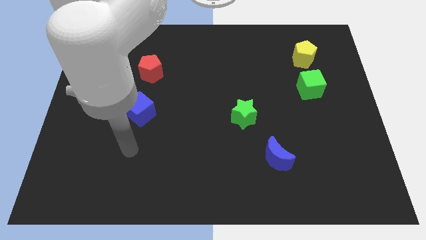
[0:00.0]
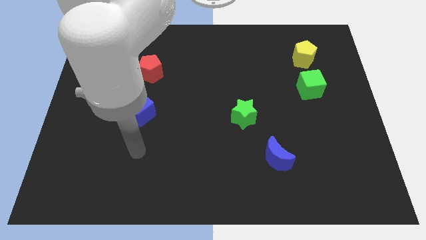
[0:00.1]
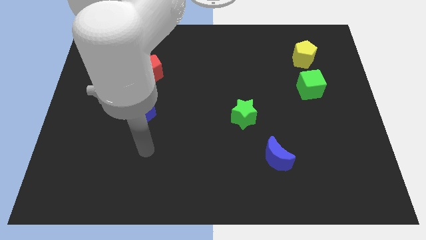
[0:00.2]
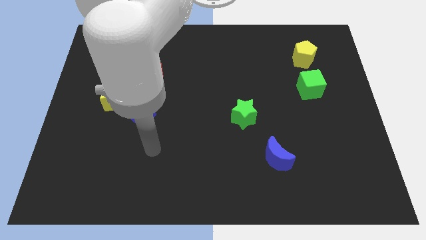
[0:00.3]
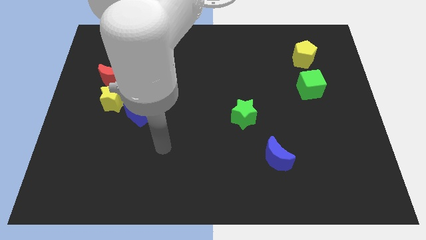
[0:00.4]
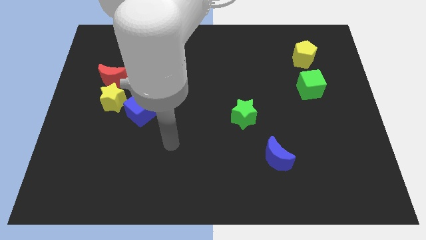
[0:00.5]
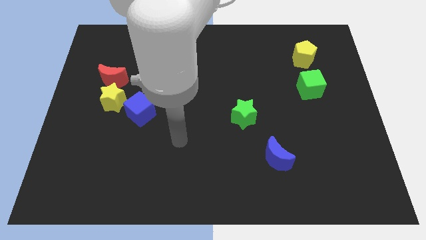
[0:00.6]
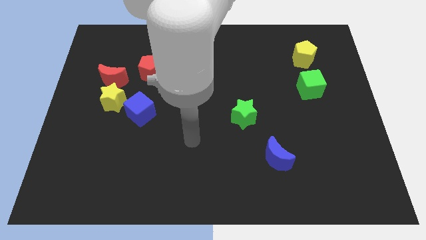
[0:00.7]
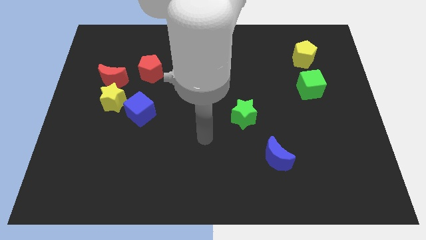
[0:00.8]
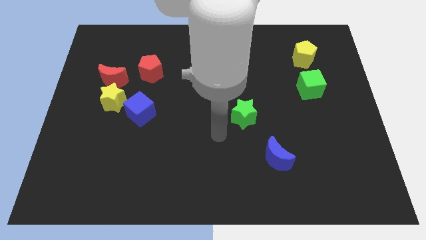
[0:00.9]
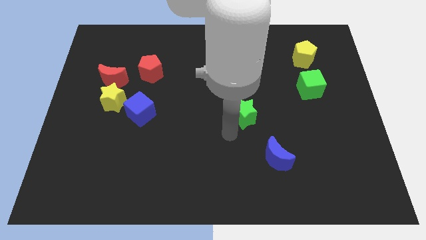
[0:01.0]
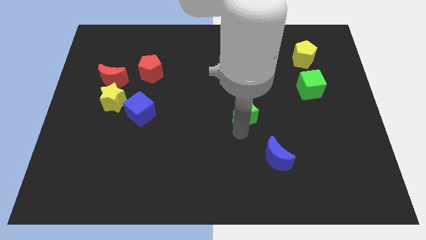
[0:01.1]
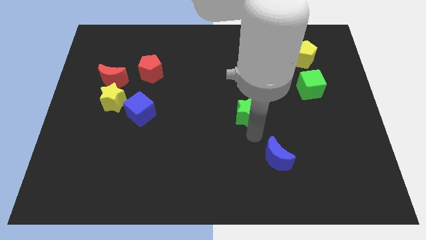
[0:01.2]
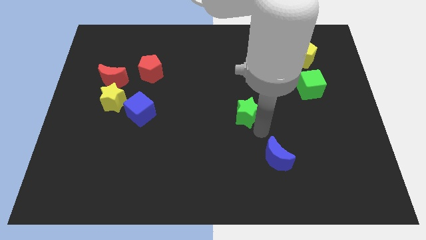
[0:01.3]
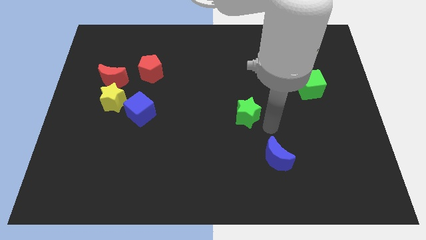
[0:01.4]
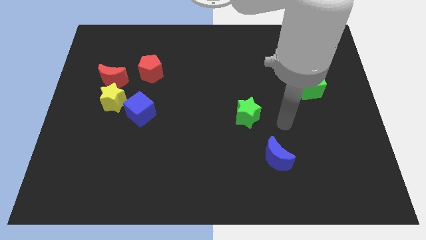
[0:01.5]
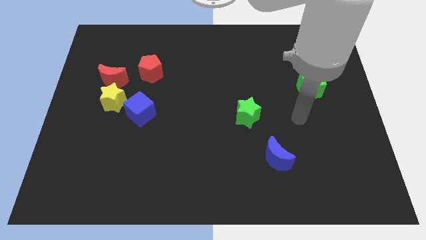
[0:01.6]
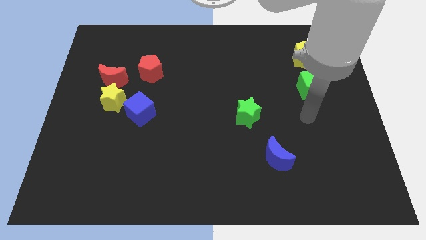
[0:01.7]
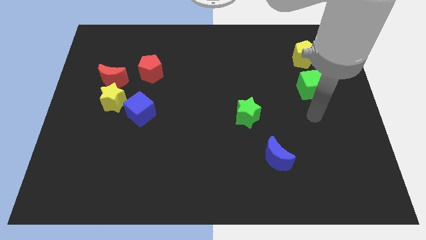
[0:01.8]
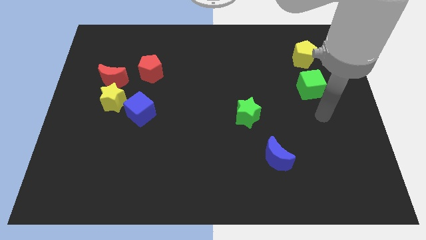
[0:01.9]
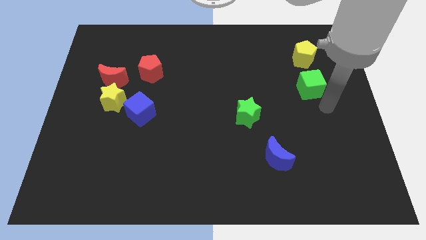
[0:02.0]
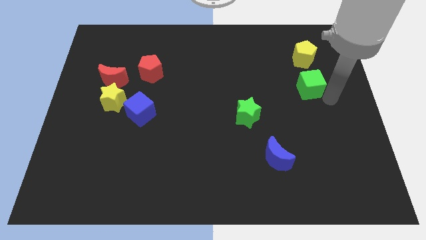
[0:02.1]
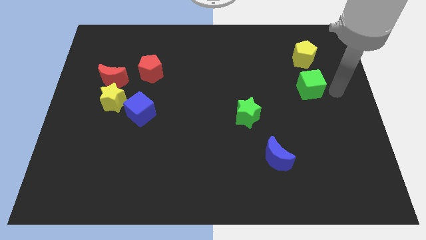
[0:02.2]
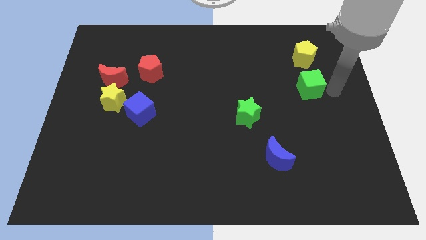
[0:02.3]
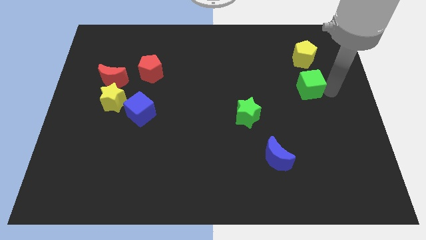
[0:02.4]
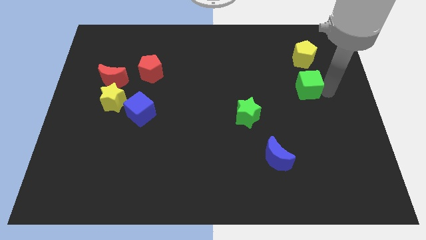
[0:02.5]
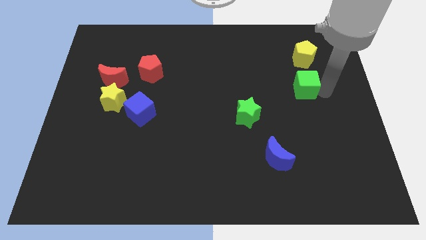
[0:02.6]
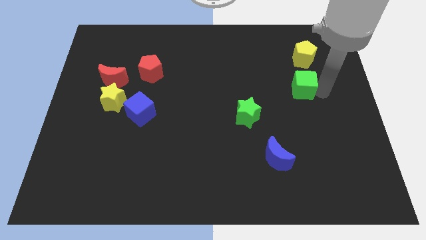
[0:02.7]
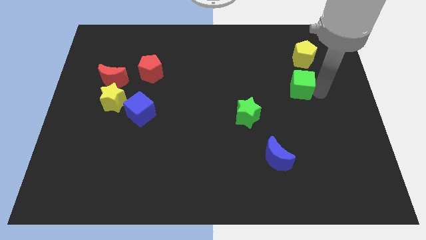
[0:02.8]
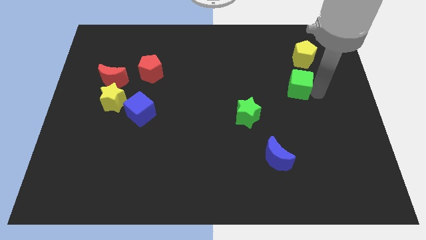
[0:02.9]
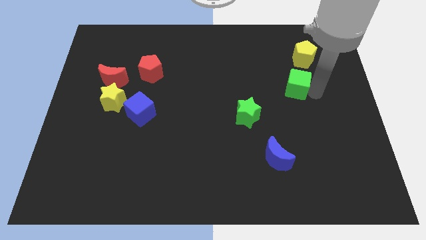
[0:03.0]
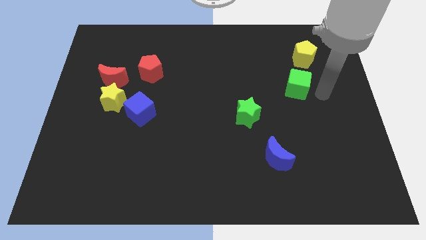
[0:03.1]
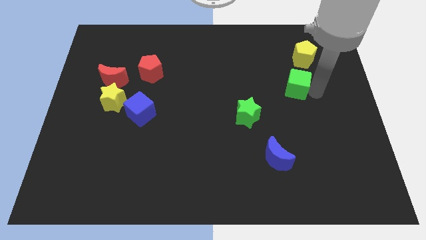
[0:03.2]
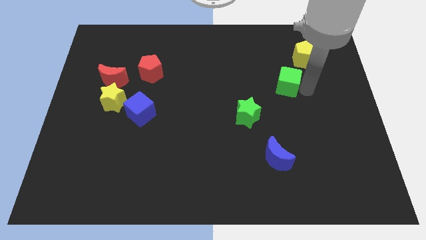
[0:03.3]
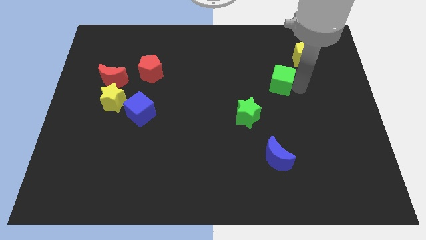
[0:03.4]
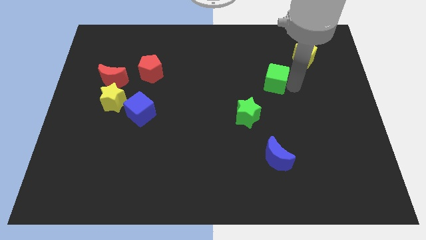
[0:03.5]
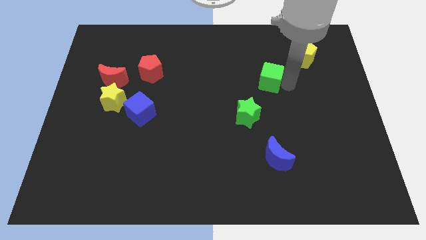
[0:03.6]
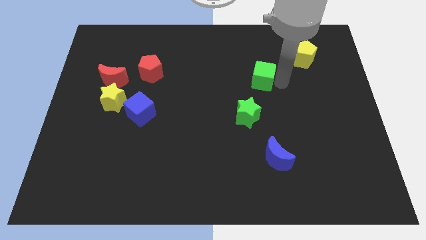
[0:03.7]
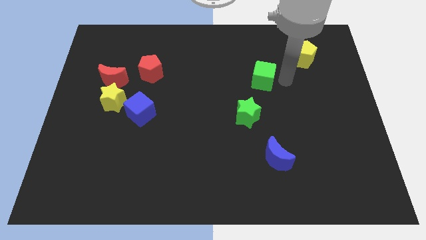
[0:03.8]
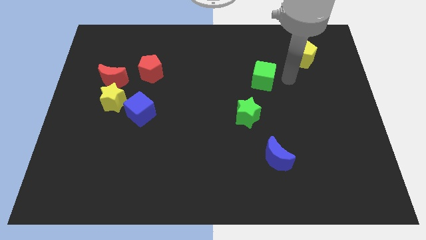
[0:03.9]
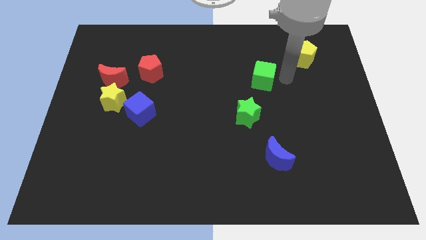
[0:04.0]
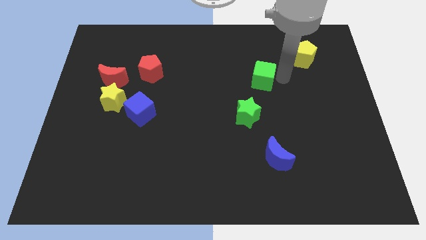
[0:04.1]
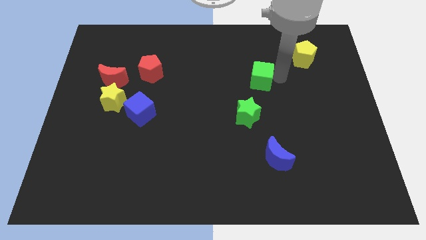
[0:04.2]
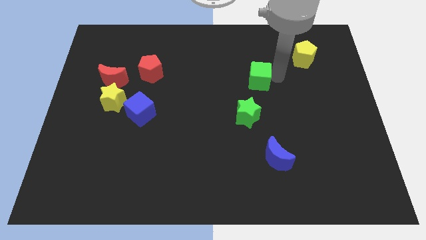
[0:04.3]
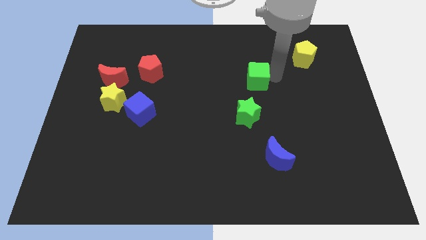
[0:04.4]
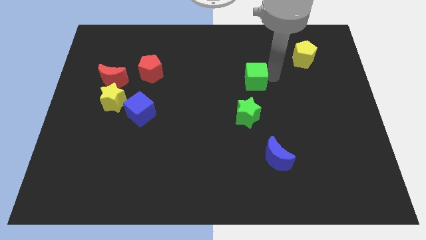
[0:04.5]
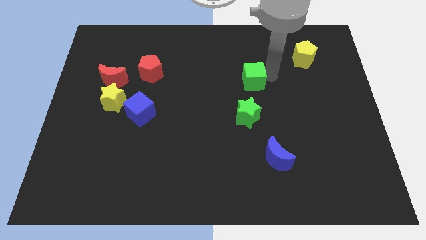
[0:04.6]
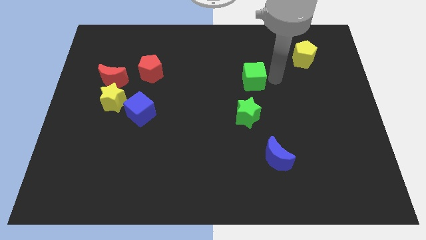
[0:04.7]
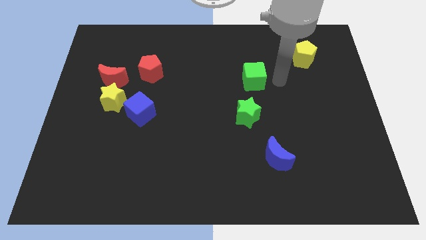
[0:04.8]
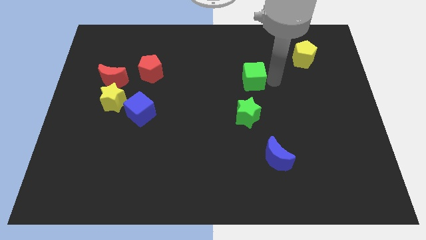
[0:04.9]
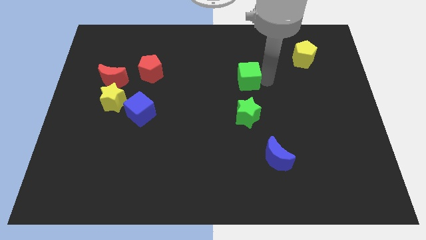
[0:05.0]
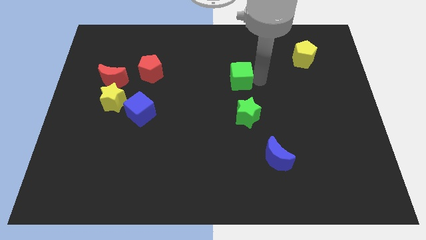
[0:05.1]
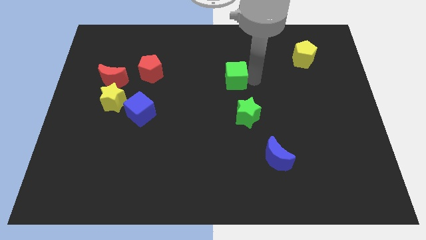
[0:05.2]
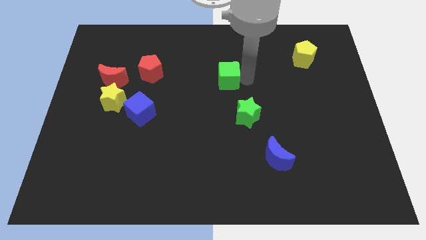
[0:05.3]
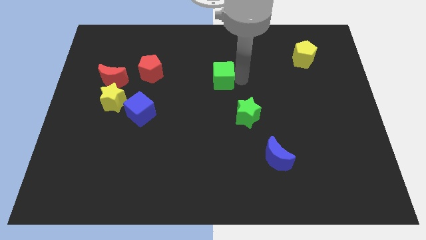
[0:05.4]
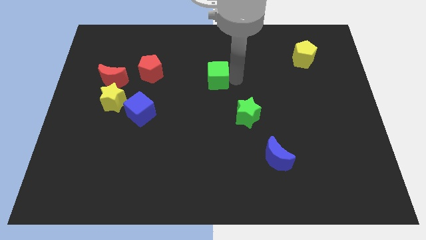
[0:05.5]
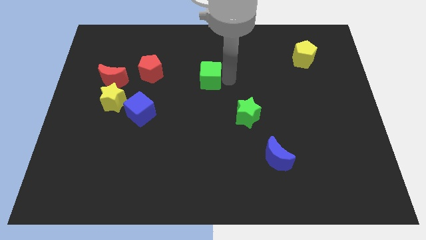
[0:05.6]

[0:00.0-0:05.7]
push the green cube to the right side of the red pentagon

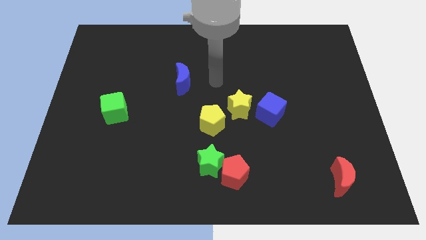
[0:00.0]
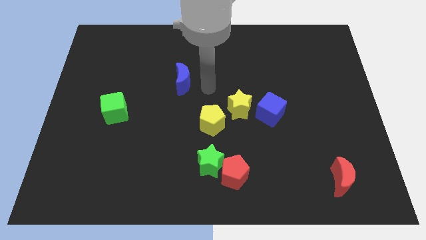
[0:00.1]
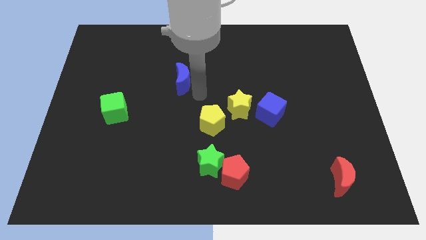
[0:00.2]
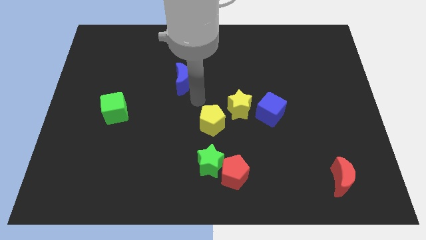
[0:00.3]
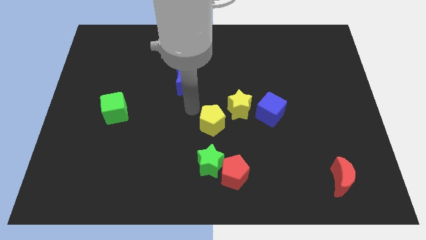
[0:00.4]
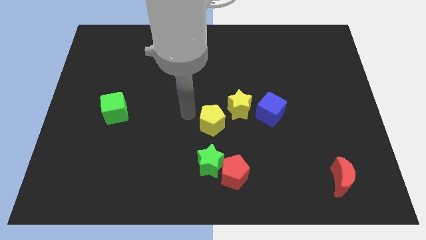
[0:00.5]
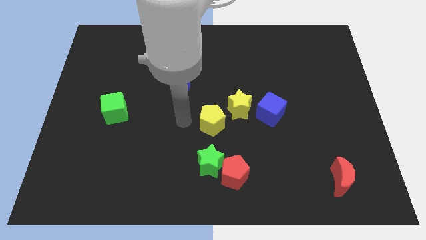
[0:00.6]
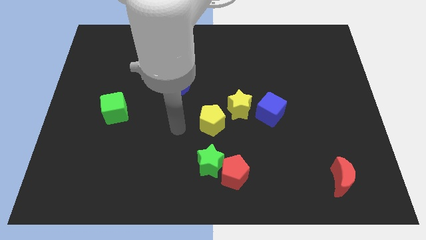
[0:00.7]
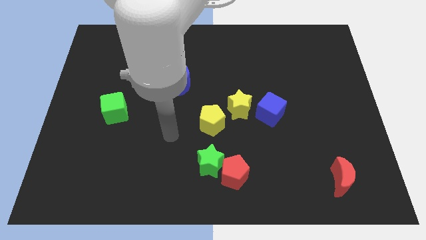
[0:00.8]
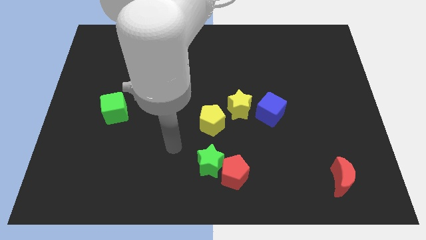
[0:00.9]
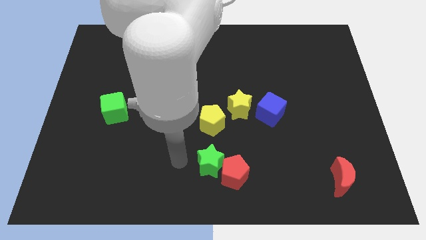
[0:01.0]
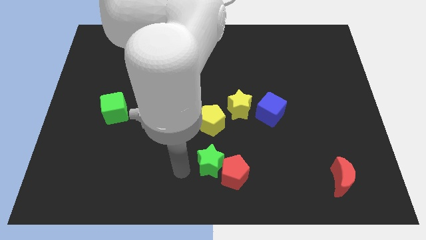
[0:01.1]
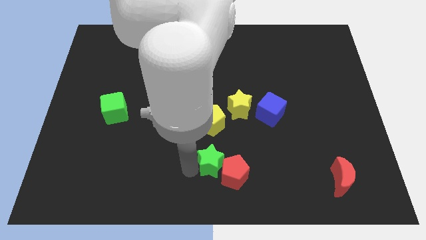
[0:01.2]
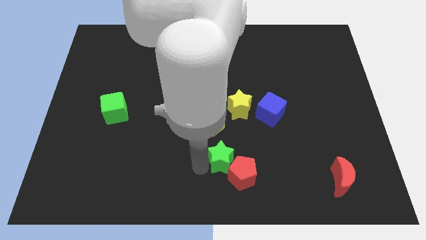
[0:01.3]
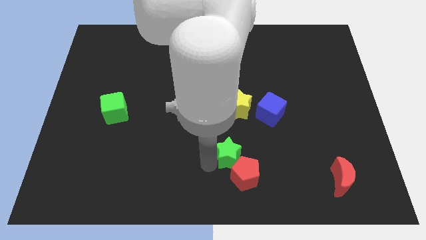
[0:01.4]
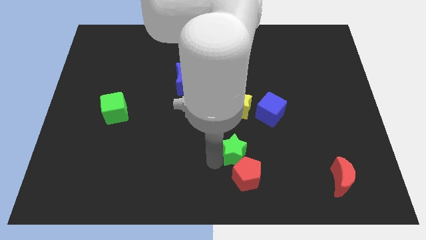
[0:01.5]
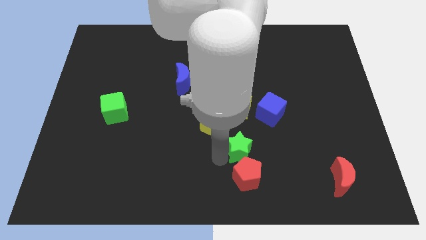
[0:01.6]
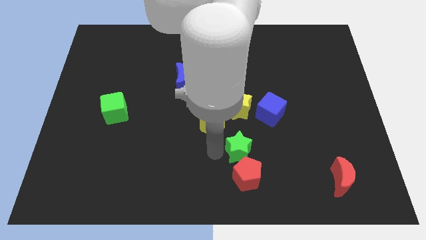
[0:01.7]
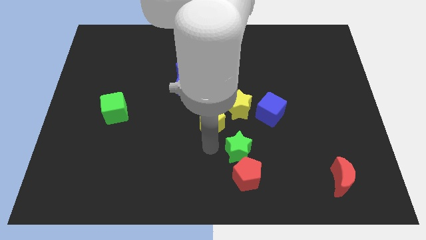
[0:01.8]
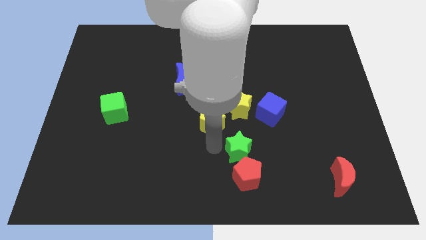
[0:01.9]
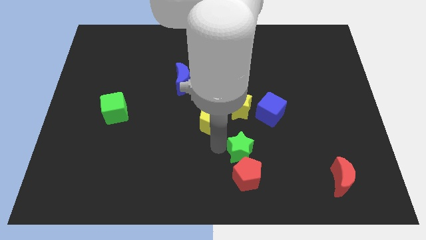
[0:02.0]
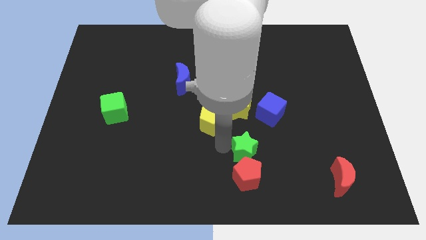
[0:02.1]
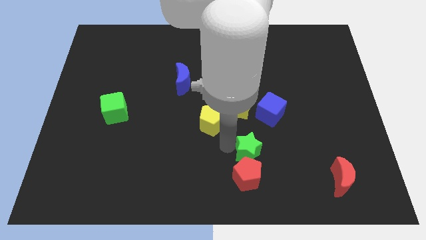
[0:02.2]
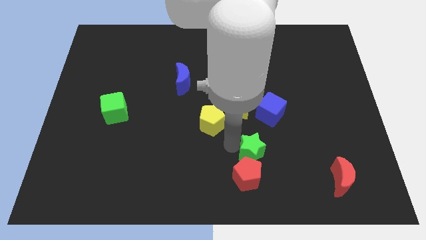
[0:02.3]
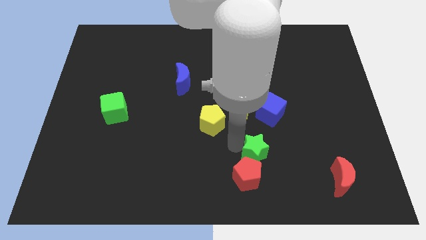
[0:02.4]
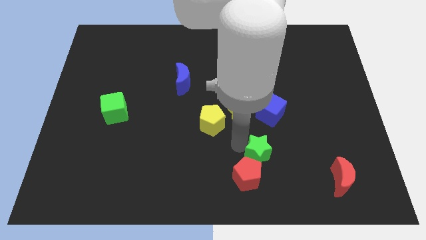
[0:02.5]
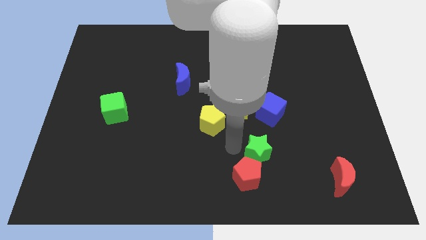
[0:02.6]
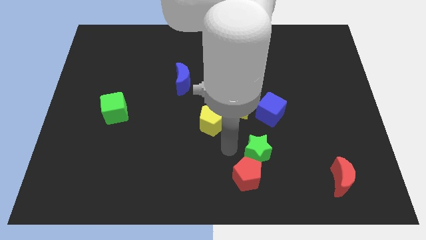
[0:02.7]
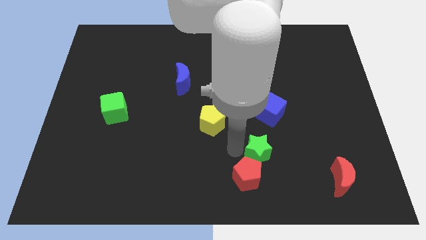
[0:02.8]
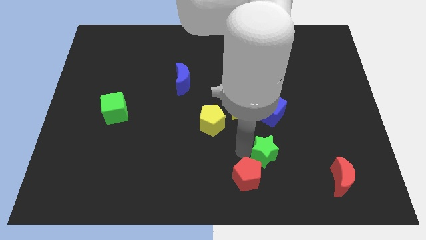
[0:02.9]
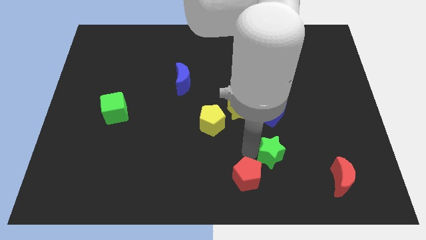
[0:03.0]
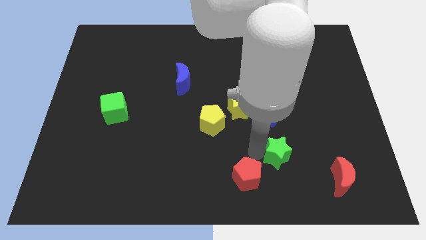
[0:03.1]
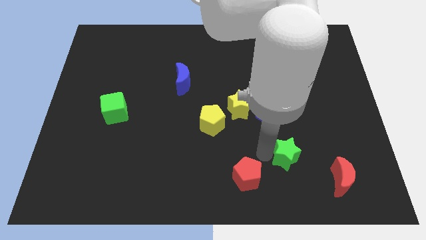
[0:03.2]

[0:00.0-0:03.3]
push the green star diagonally up and to the left of the red moon
